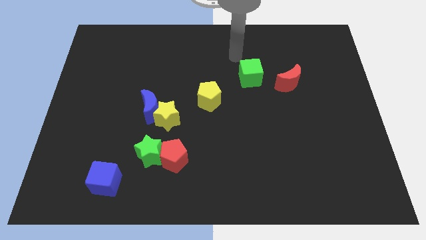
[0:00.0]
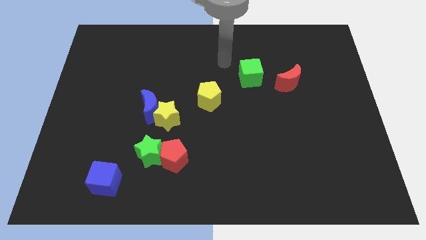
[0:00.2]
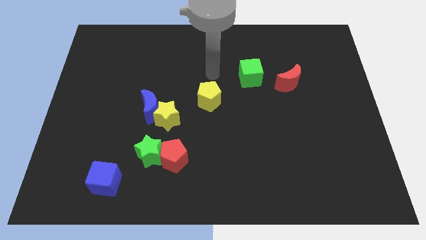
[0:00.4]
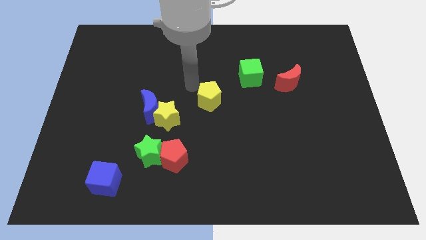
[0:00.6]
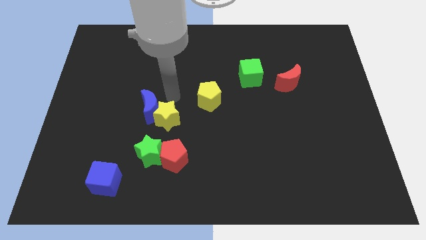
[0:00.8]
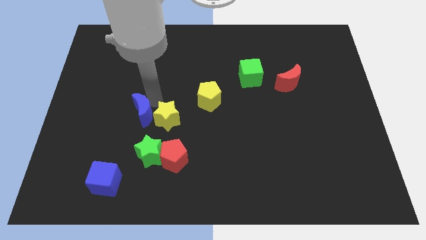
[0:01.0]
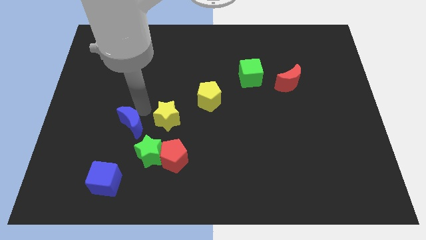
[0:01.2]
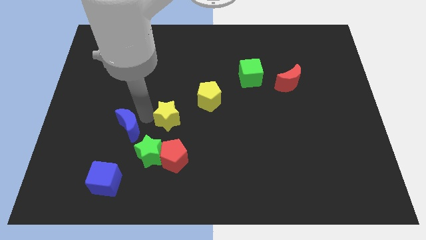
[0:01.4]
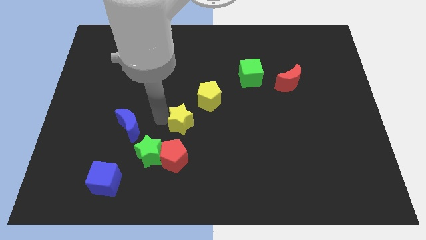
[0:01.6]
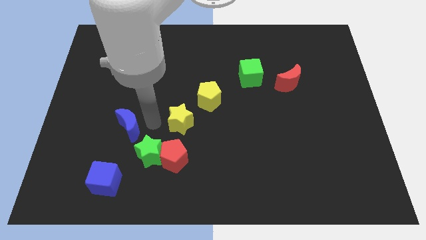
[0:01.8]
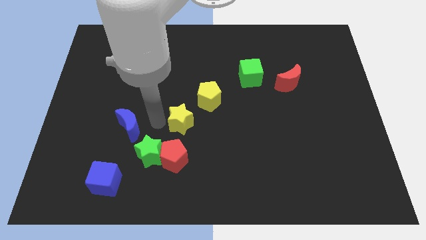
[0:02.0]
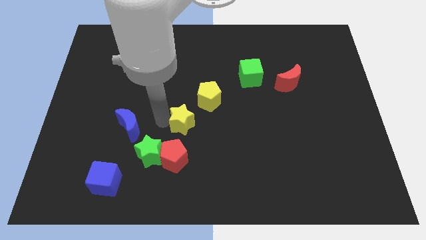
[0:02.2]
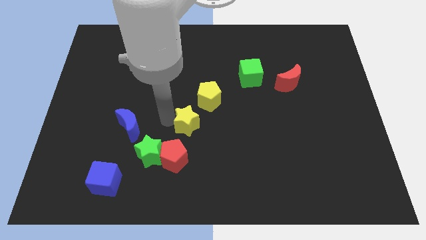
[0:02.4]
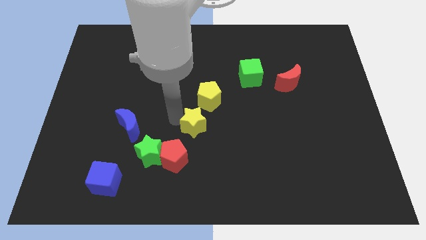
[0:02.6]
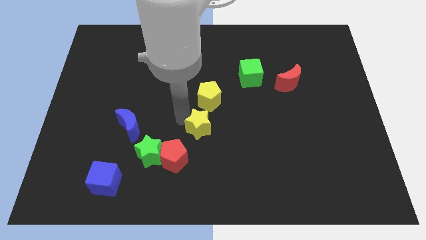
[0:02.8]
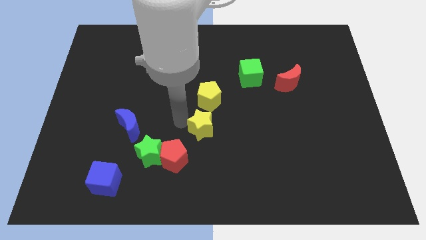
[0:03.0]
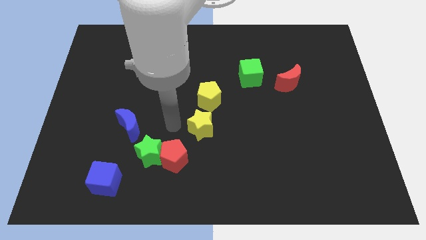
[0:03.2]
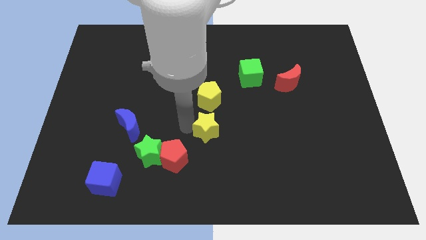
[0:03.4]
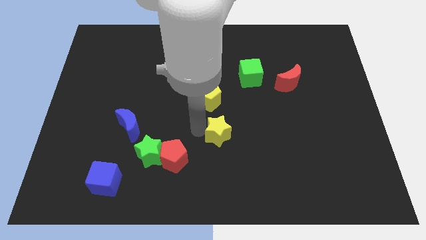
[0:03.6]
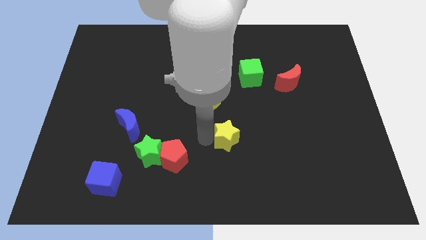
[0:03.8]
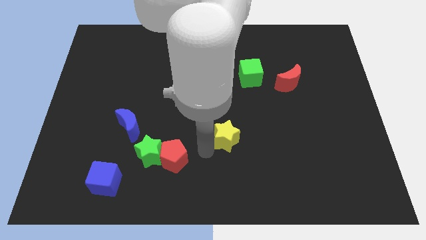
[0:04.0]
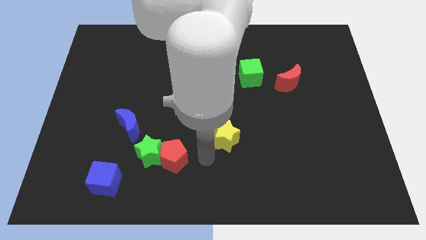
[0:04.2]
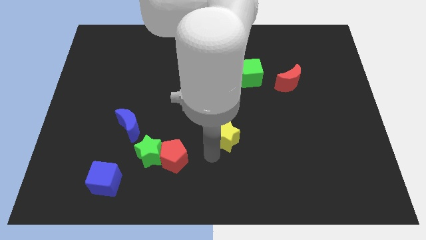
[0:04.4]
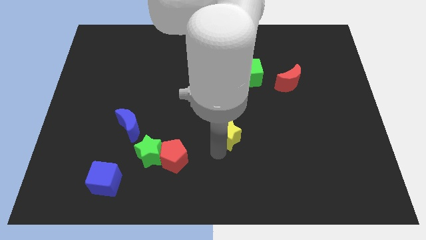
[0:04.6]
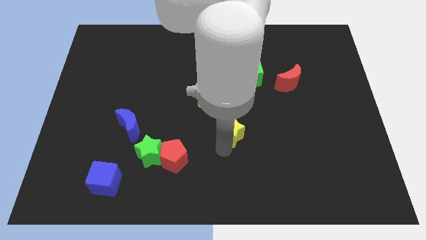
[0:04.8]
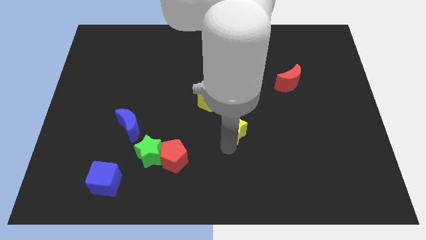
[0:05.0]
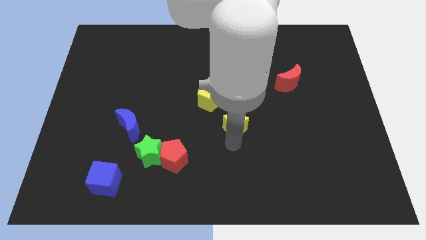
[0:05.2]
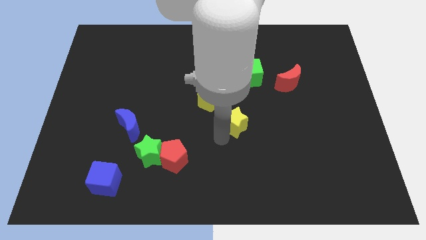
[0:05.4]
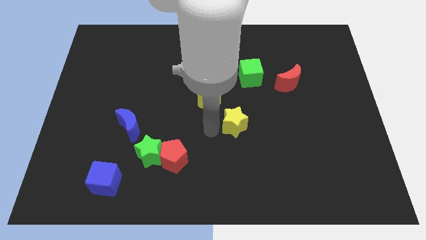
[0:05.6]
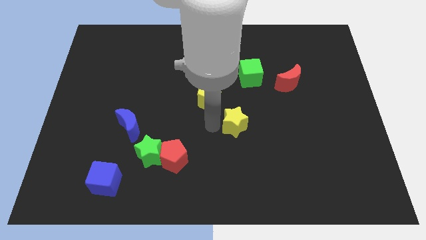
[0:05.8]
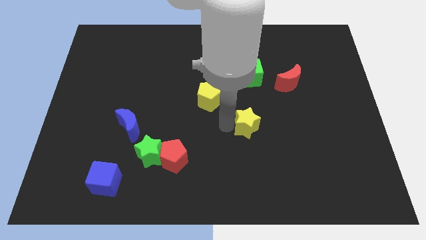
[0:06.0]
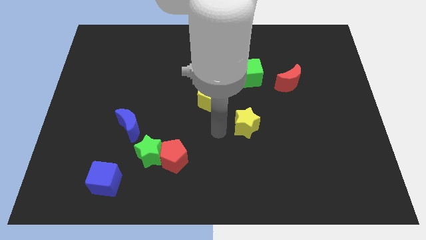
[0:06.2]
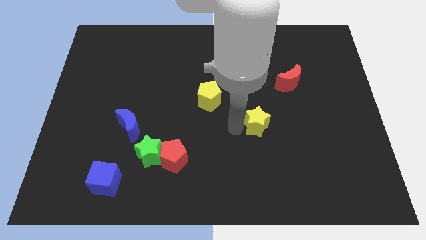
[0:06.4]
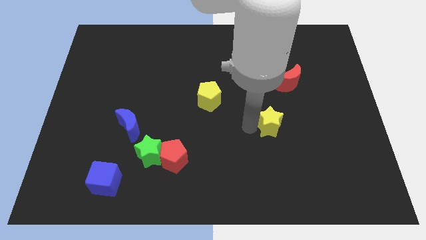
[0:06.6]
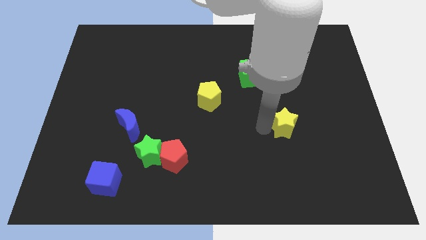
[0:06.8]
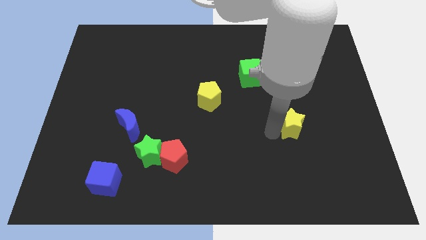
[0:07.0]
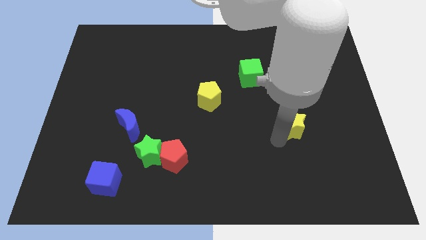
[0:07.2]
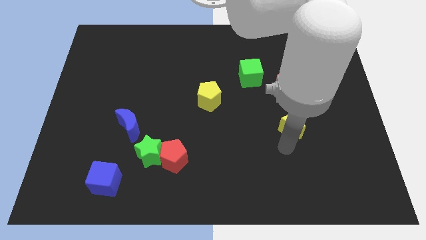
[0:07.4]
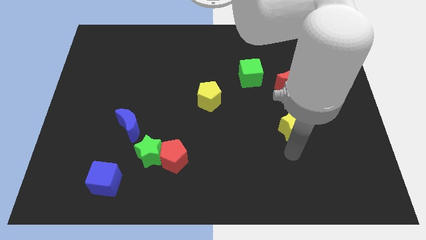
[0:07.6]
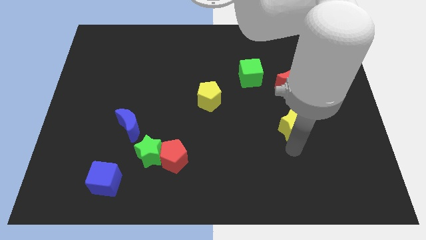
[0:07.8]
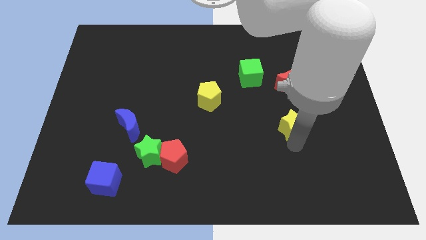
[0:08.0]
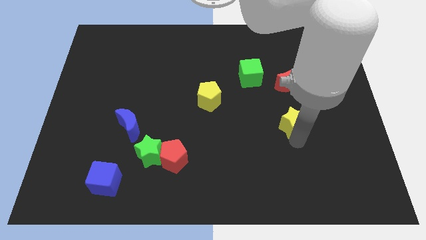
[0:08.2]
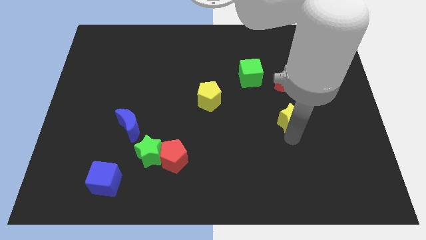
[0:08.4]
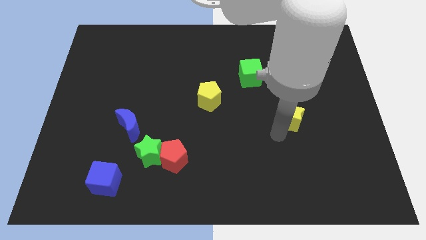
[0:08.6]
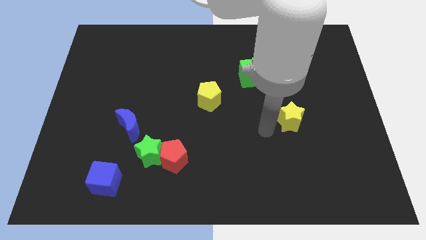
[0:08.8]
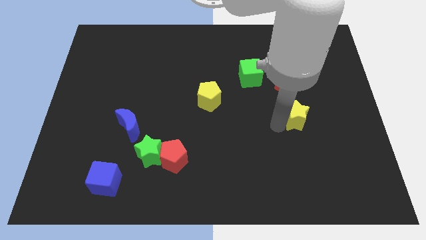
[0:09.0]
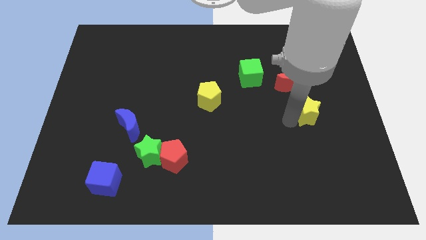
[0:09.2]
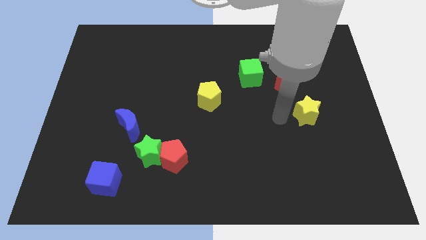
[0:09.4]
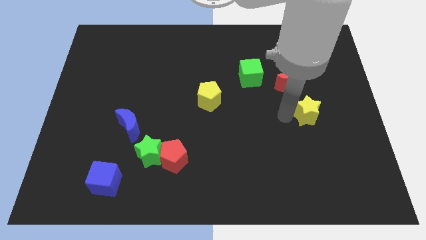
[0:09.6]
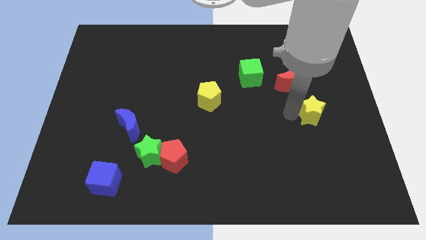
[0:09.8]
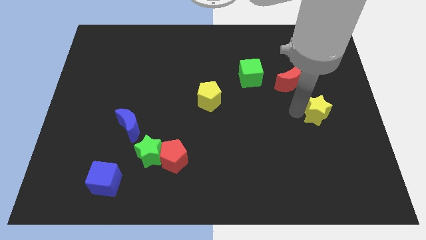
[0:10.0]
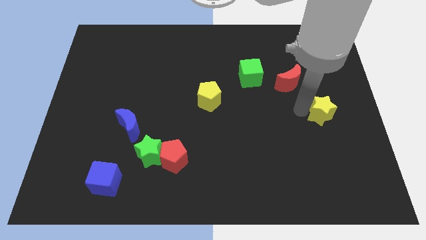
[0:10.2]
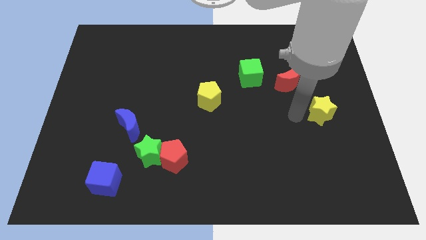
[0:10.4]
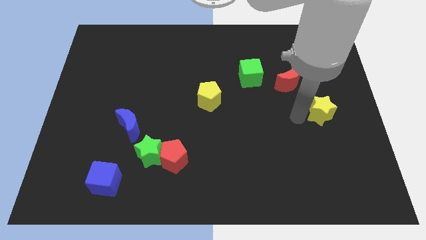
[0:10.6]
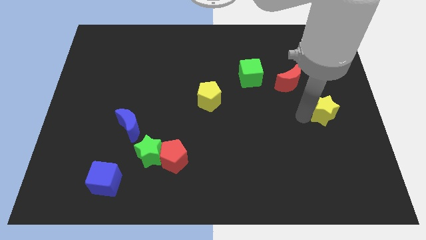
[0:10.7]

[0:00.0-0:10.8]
move the yellow star to the center right
